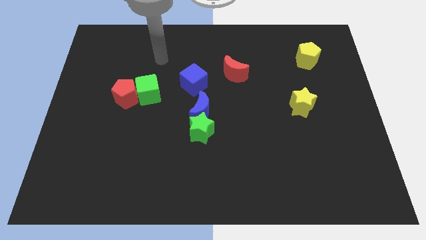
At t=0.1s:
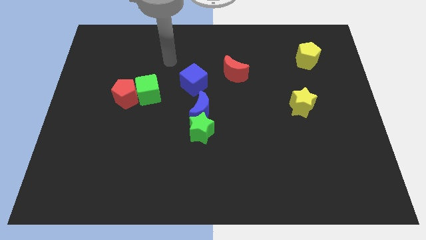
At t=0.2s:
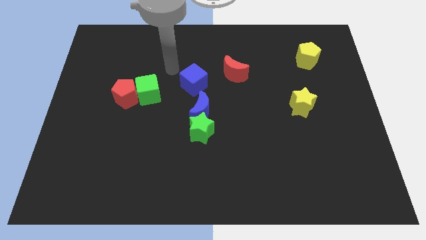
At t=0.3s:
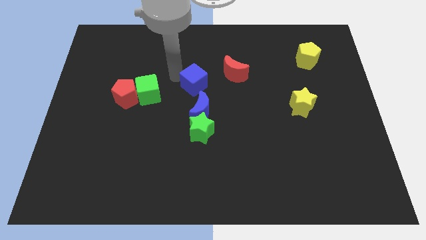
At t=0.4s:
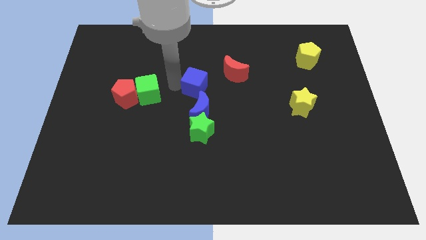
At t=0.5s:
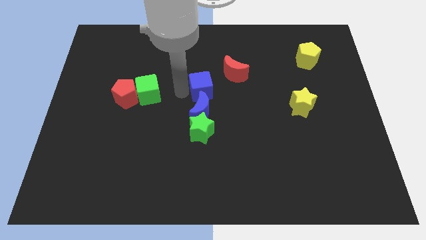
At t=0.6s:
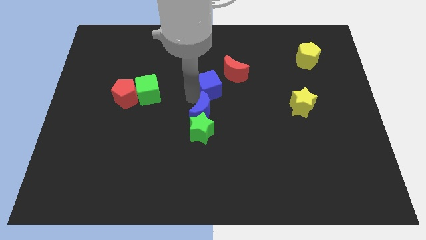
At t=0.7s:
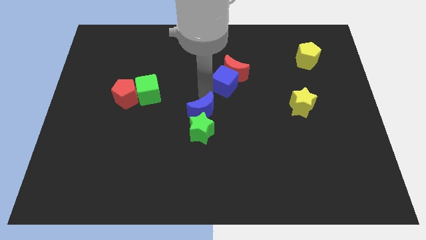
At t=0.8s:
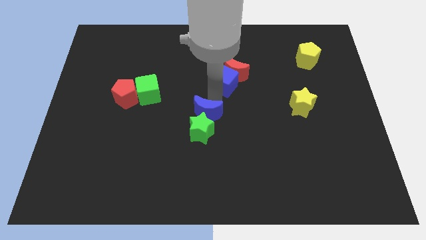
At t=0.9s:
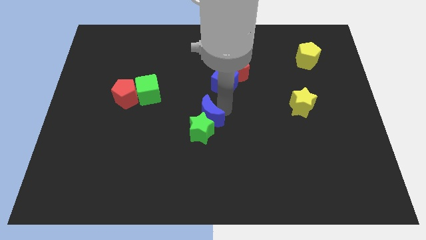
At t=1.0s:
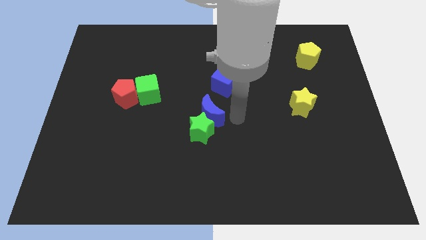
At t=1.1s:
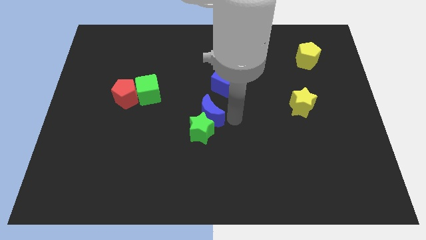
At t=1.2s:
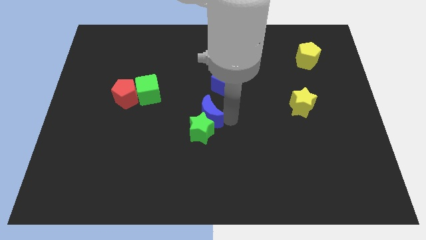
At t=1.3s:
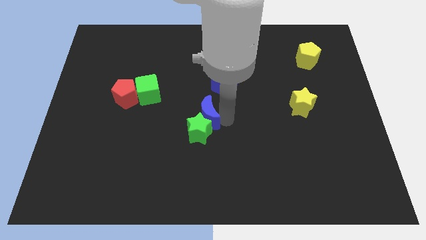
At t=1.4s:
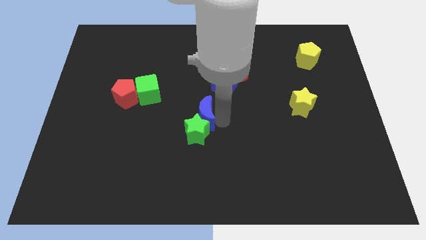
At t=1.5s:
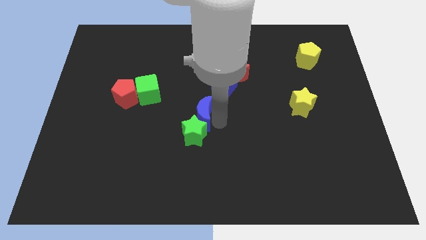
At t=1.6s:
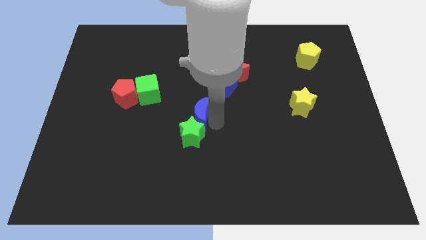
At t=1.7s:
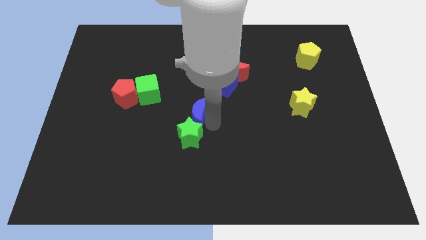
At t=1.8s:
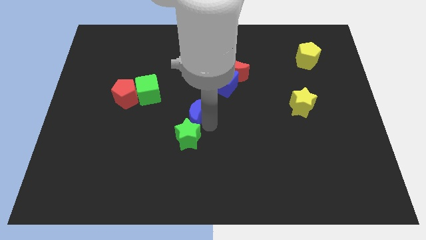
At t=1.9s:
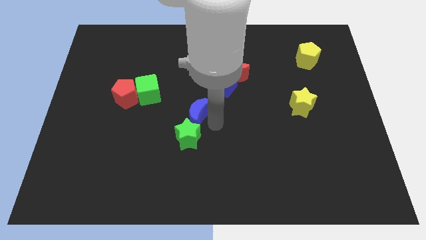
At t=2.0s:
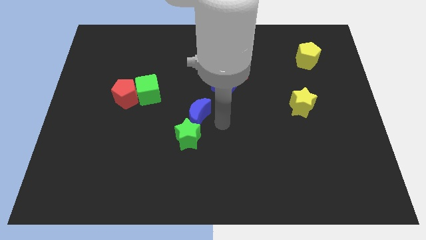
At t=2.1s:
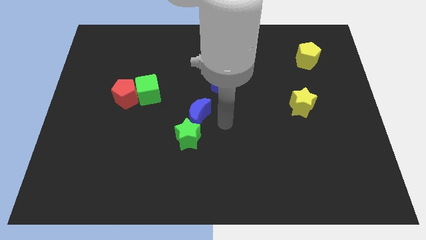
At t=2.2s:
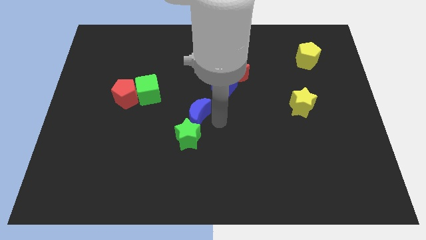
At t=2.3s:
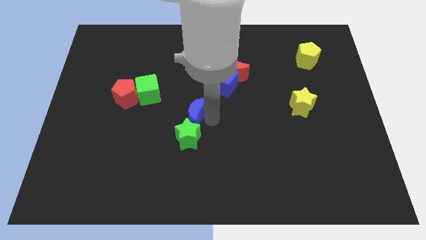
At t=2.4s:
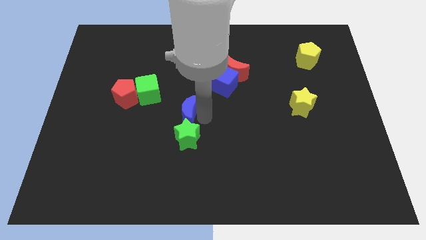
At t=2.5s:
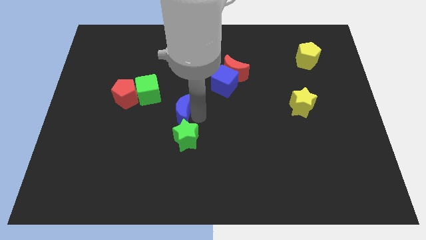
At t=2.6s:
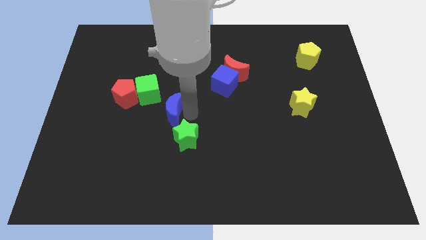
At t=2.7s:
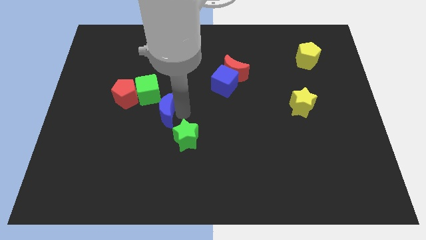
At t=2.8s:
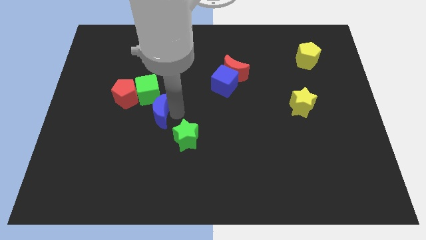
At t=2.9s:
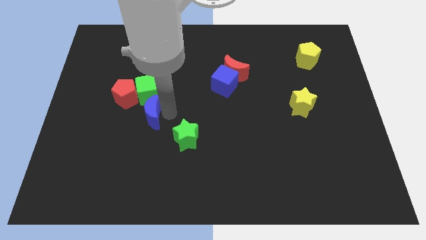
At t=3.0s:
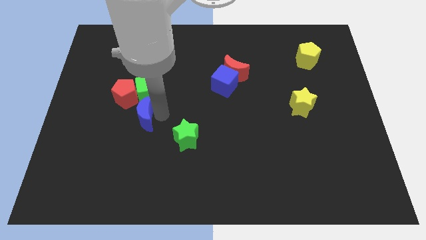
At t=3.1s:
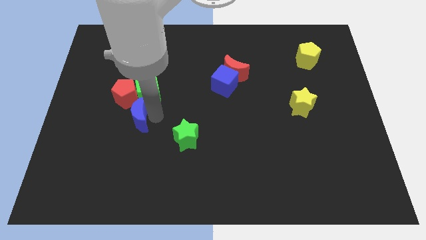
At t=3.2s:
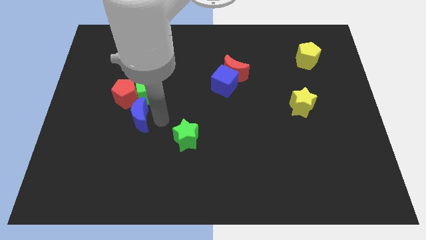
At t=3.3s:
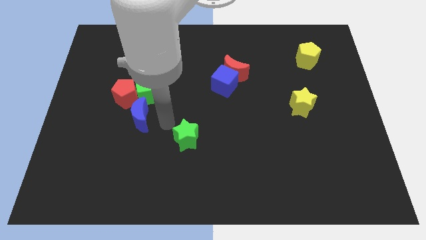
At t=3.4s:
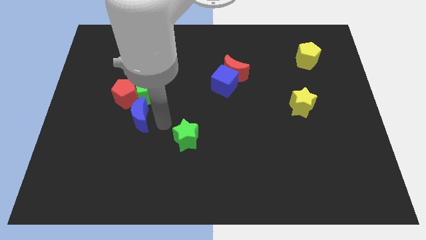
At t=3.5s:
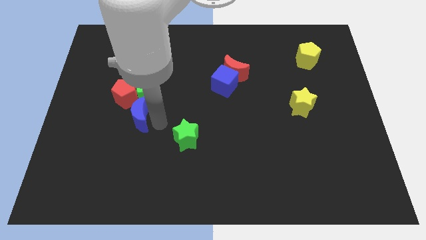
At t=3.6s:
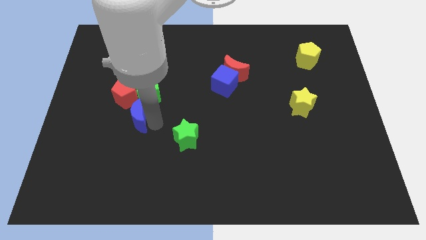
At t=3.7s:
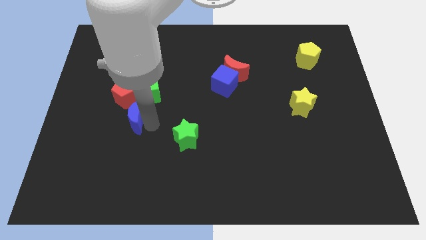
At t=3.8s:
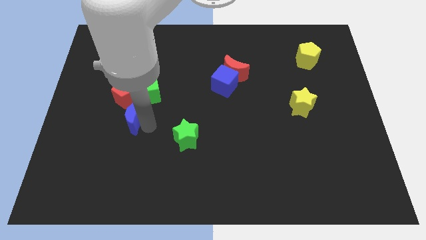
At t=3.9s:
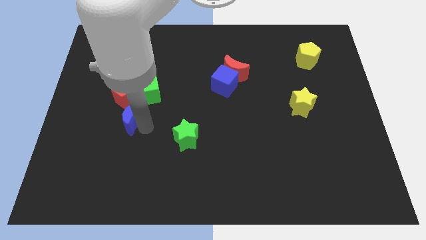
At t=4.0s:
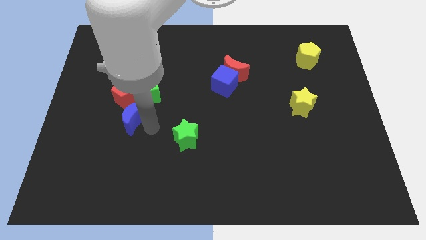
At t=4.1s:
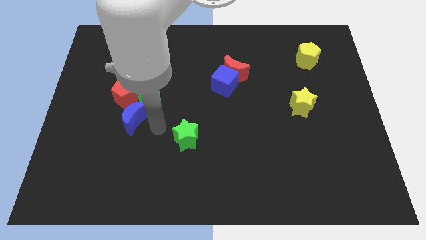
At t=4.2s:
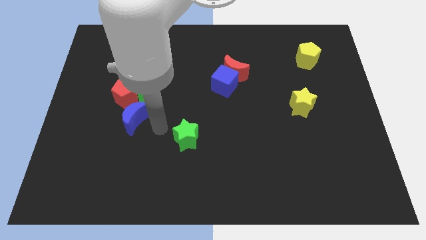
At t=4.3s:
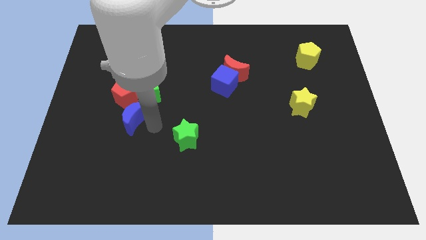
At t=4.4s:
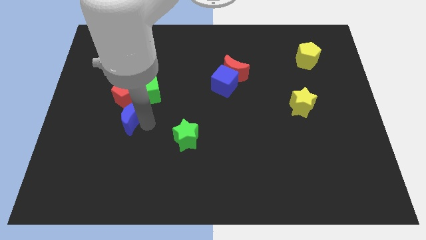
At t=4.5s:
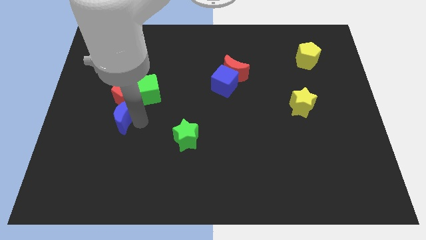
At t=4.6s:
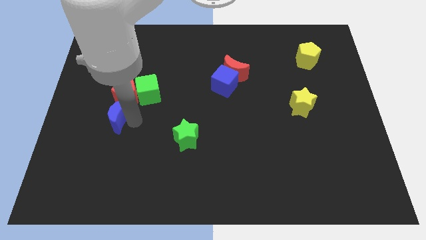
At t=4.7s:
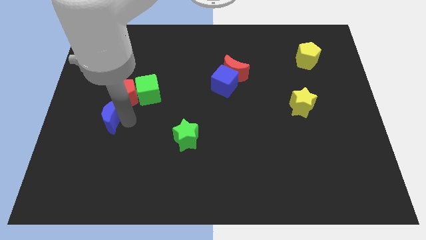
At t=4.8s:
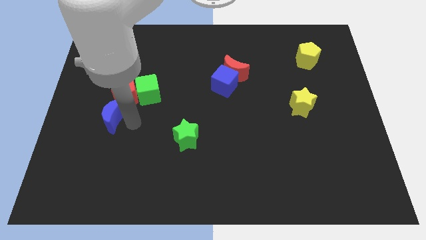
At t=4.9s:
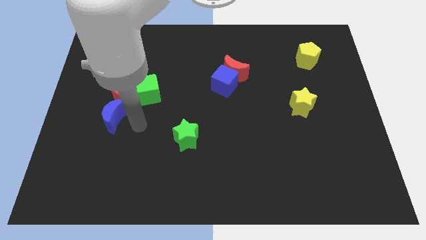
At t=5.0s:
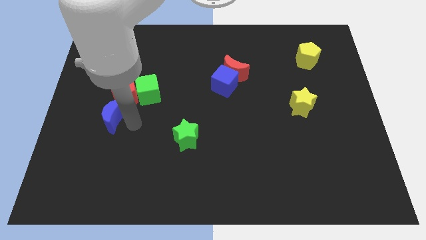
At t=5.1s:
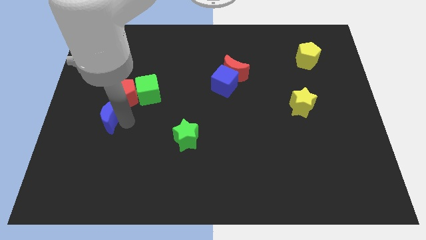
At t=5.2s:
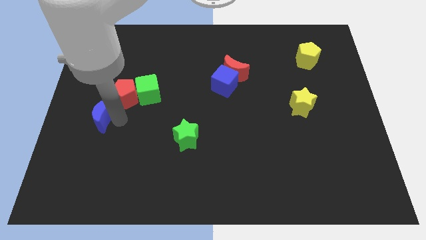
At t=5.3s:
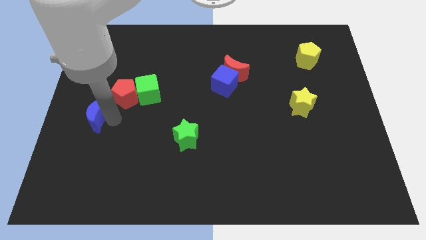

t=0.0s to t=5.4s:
put the blue moon to the left side of the board

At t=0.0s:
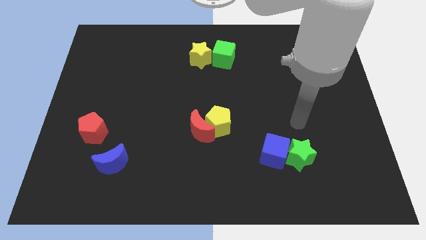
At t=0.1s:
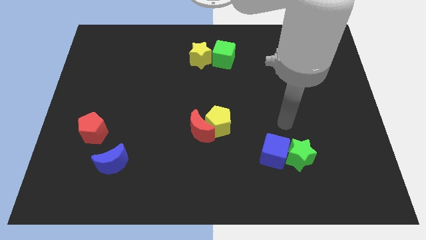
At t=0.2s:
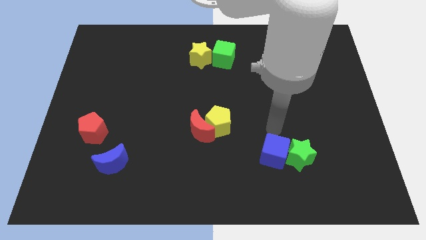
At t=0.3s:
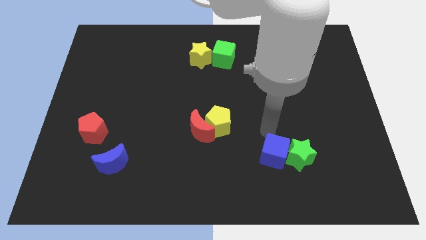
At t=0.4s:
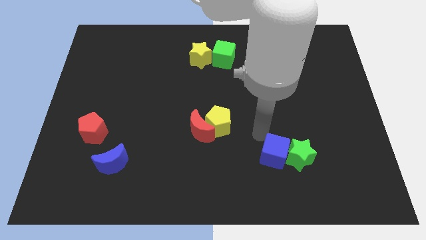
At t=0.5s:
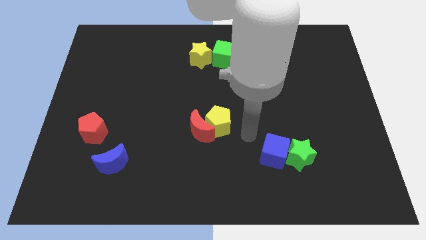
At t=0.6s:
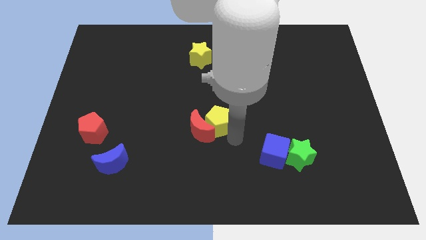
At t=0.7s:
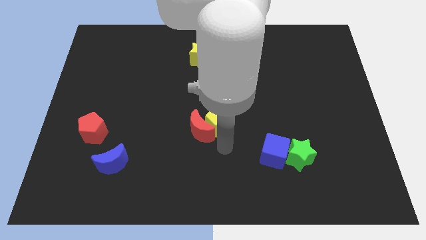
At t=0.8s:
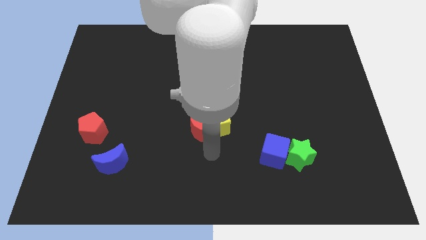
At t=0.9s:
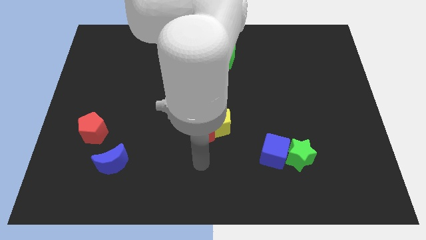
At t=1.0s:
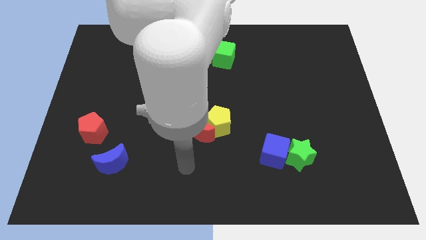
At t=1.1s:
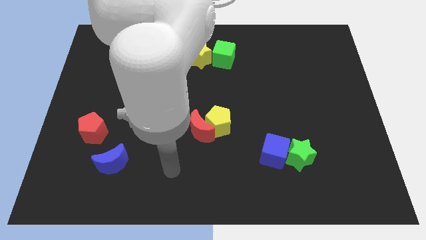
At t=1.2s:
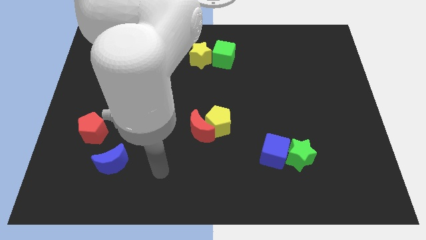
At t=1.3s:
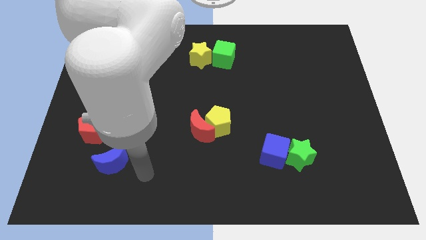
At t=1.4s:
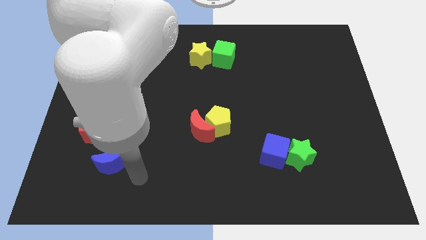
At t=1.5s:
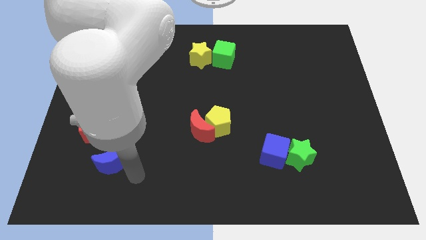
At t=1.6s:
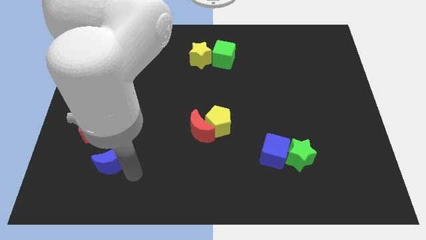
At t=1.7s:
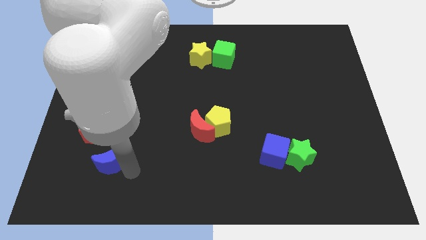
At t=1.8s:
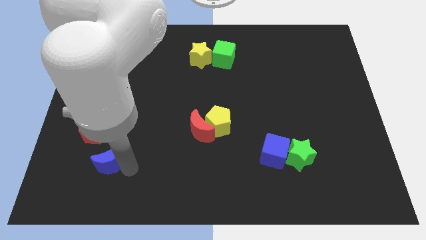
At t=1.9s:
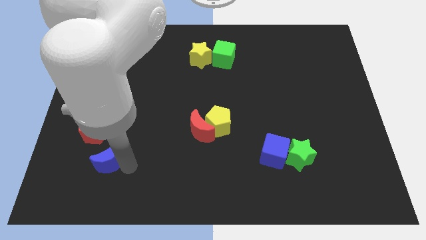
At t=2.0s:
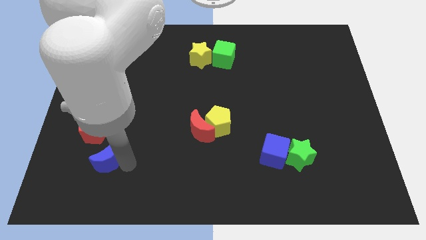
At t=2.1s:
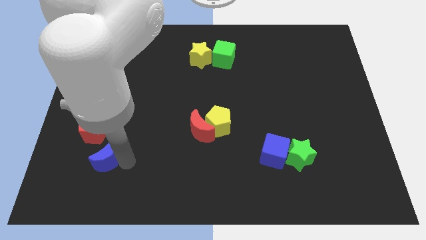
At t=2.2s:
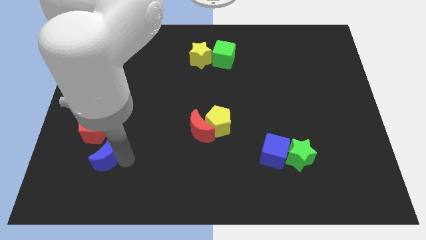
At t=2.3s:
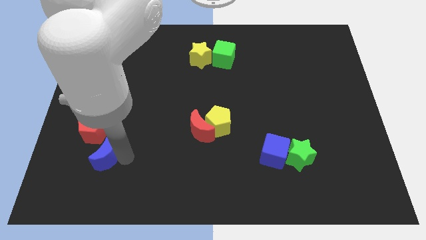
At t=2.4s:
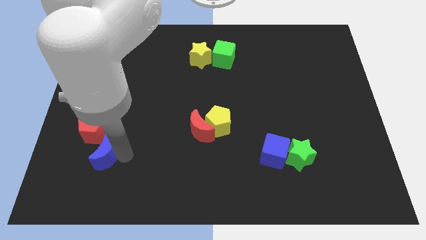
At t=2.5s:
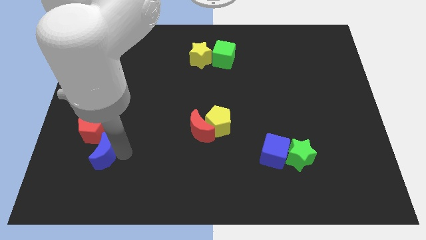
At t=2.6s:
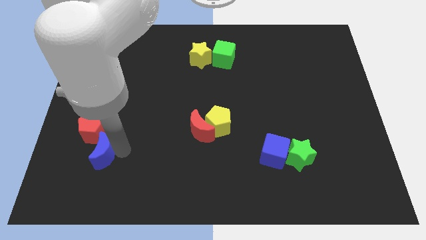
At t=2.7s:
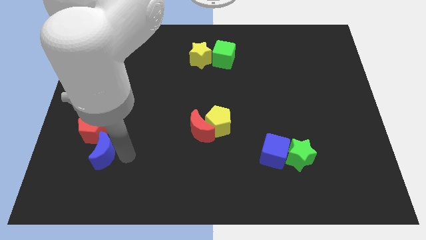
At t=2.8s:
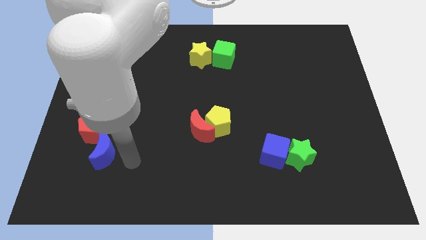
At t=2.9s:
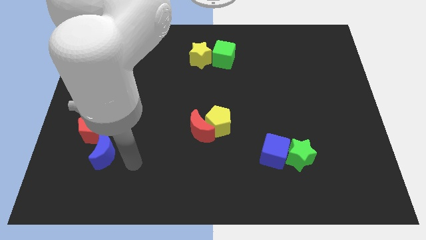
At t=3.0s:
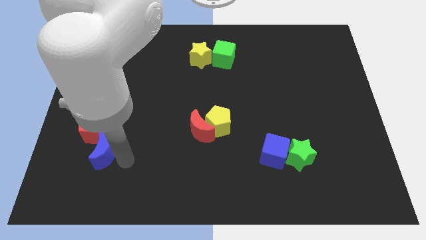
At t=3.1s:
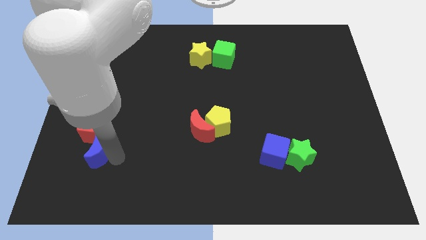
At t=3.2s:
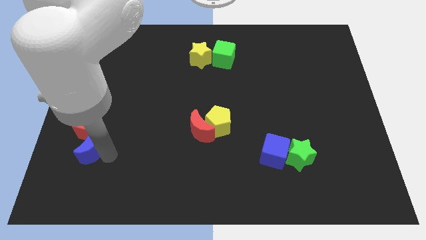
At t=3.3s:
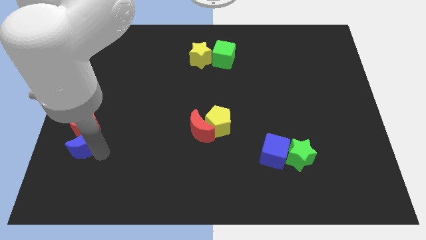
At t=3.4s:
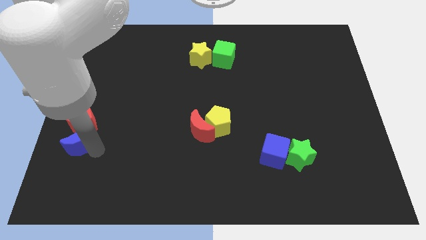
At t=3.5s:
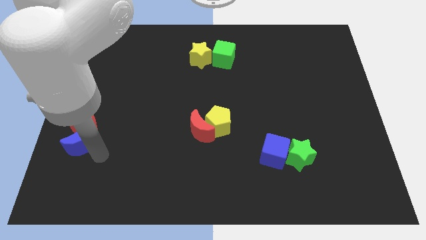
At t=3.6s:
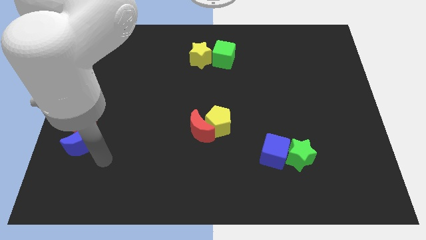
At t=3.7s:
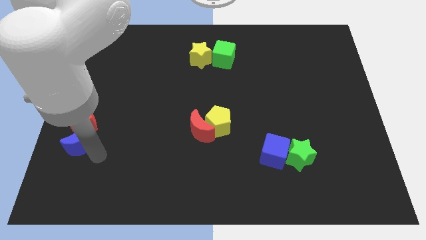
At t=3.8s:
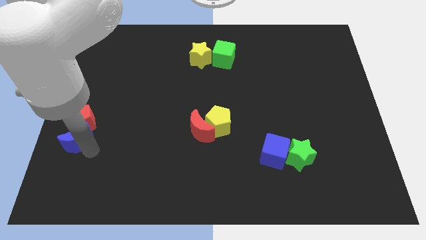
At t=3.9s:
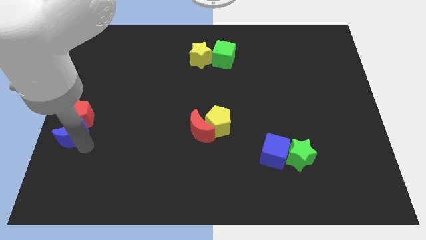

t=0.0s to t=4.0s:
put the blue moon to the left side
